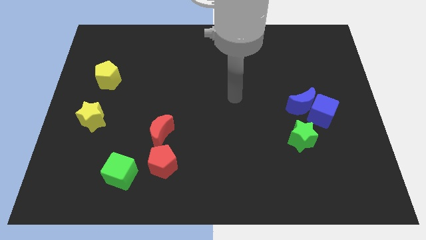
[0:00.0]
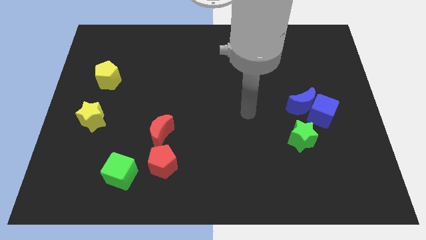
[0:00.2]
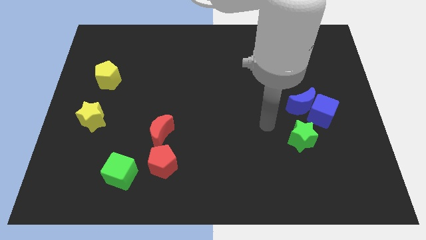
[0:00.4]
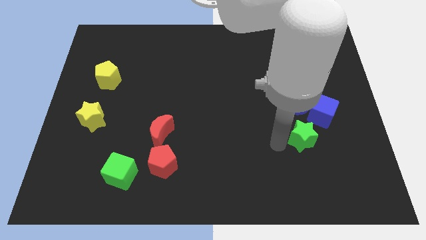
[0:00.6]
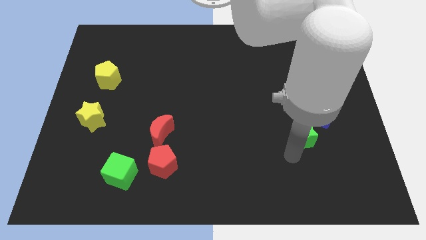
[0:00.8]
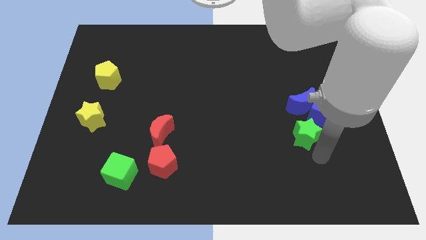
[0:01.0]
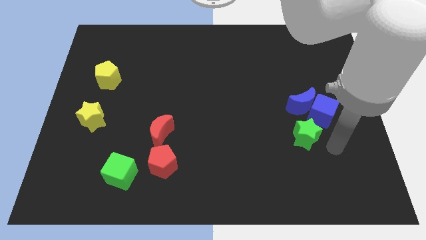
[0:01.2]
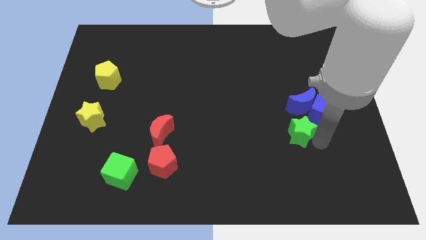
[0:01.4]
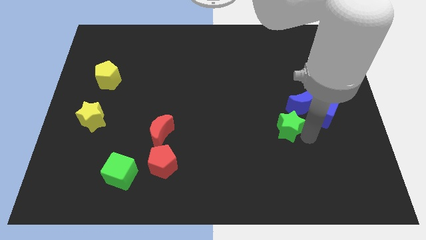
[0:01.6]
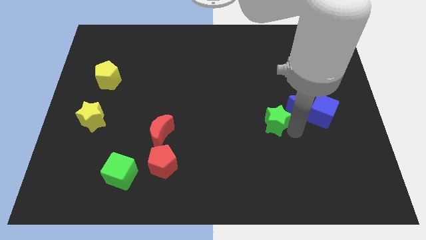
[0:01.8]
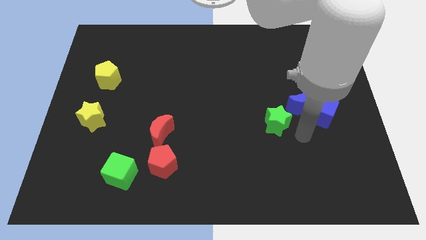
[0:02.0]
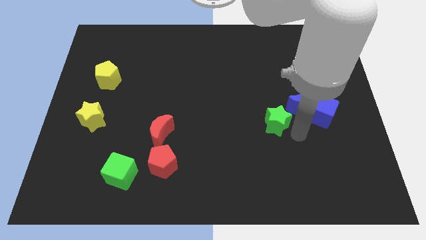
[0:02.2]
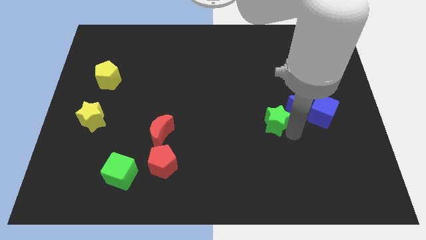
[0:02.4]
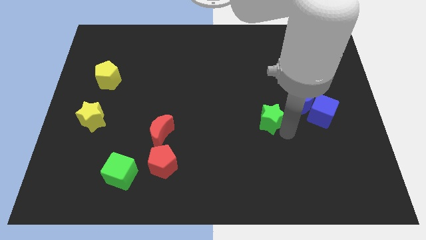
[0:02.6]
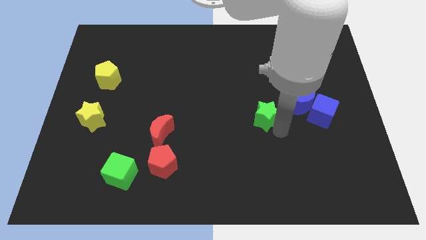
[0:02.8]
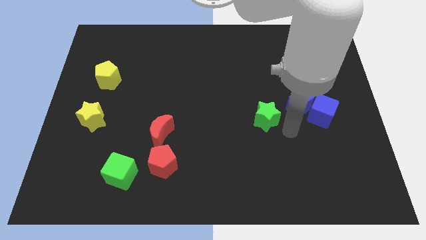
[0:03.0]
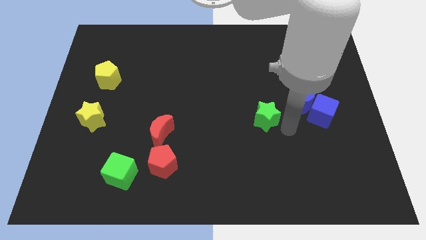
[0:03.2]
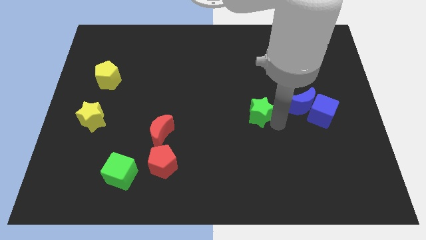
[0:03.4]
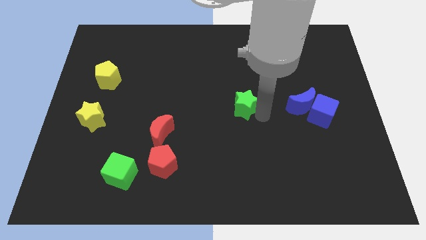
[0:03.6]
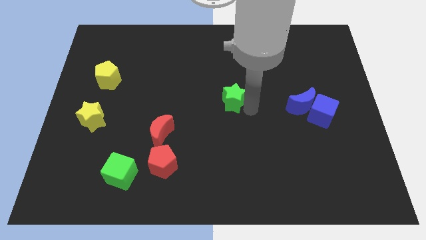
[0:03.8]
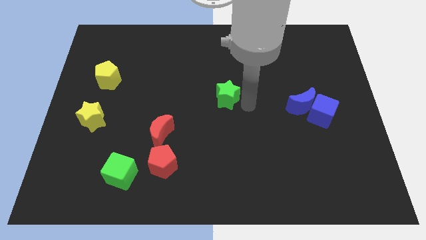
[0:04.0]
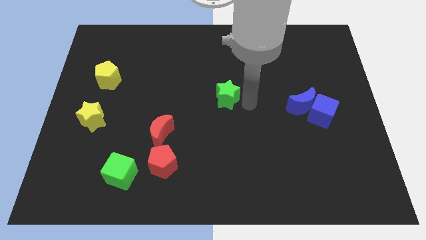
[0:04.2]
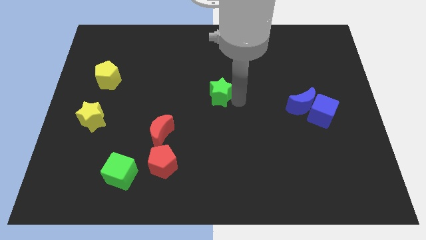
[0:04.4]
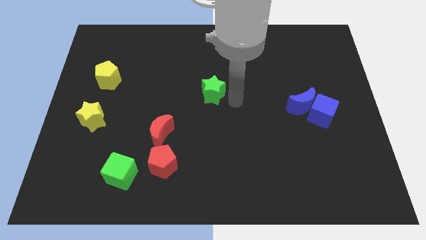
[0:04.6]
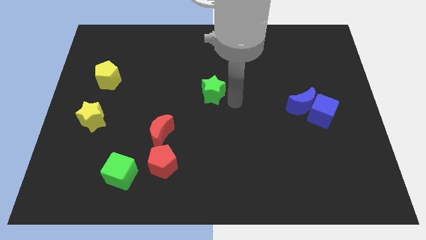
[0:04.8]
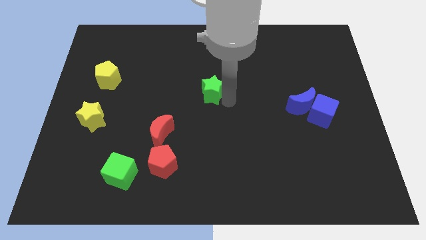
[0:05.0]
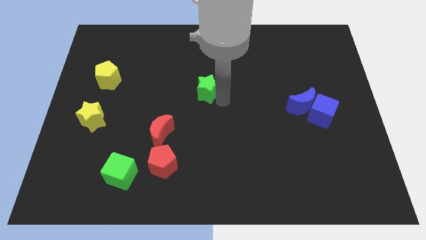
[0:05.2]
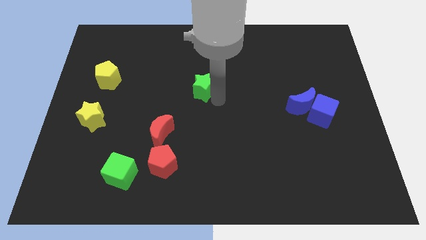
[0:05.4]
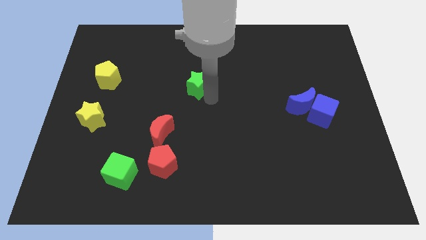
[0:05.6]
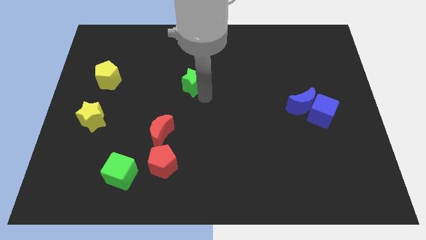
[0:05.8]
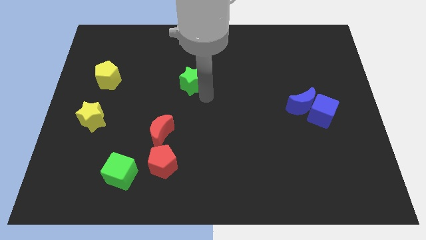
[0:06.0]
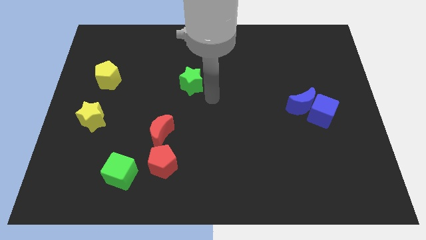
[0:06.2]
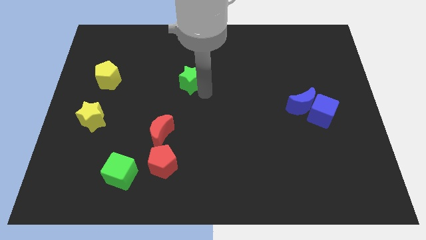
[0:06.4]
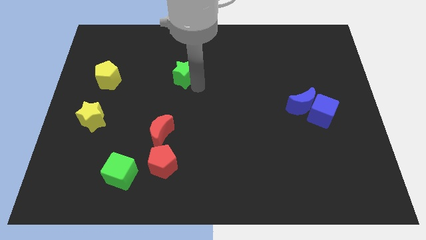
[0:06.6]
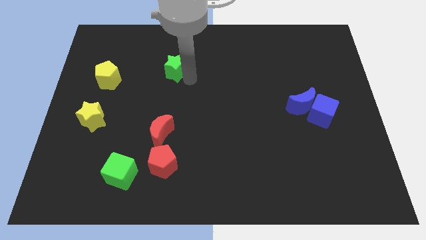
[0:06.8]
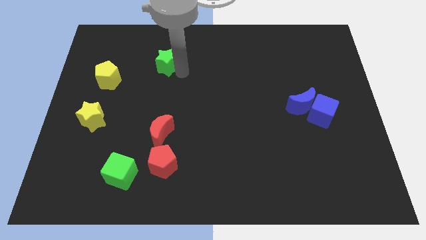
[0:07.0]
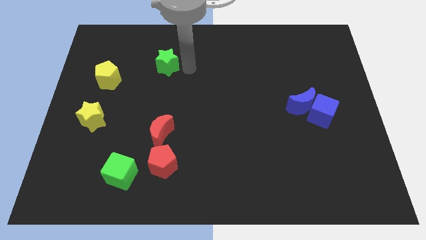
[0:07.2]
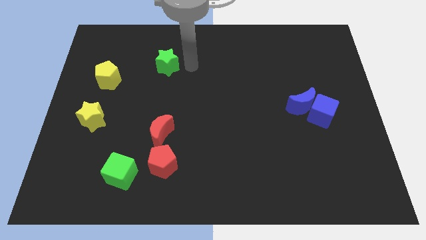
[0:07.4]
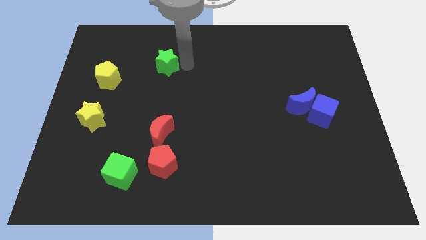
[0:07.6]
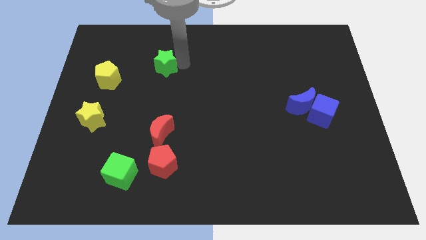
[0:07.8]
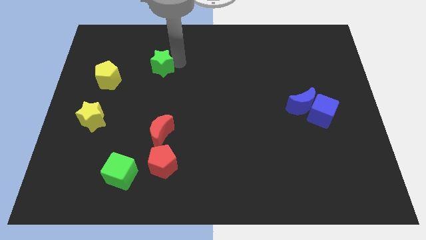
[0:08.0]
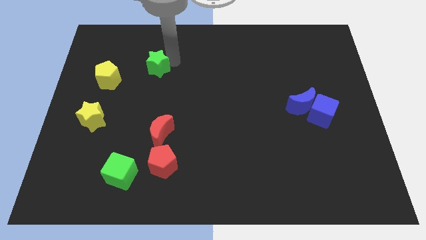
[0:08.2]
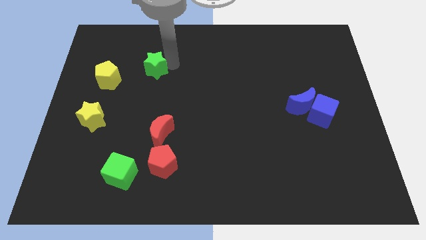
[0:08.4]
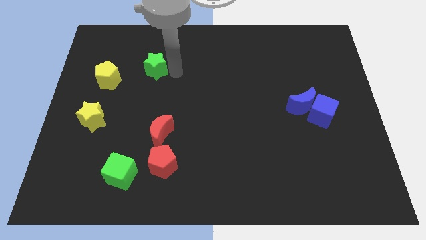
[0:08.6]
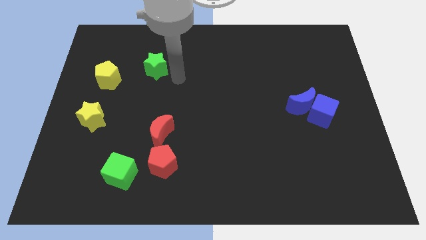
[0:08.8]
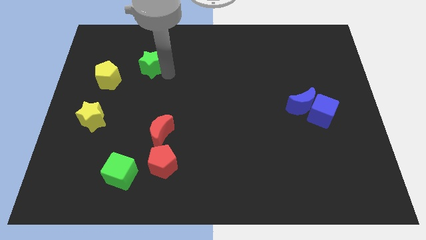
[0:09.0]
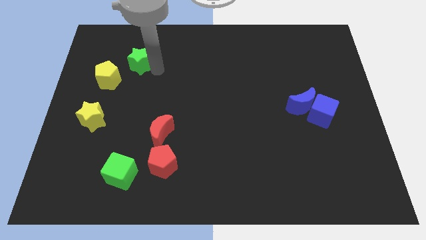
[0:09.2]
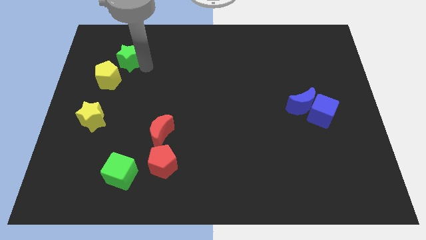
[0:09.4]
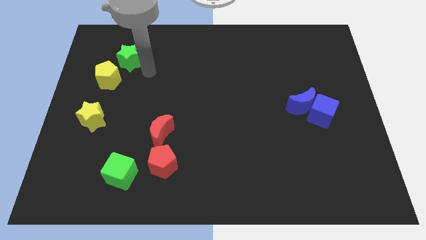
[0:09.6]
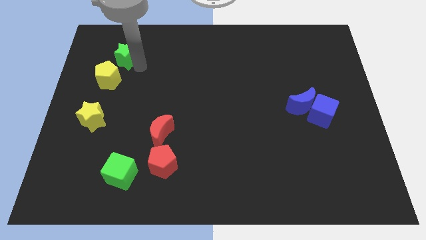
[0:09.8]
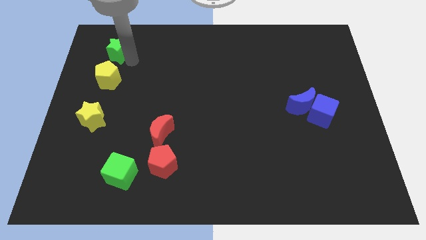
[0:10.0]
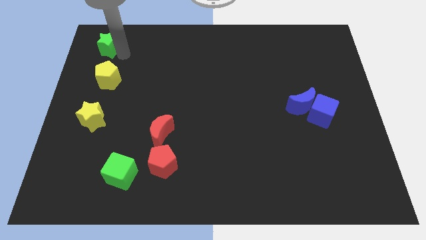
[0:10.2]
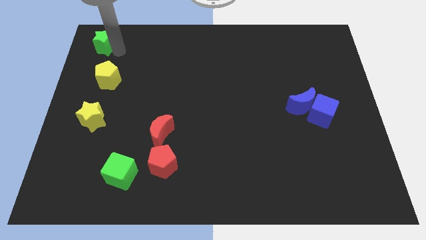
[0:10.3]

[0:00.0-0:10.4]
move the green star to the top left of the board

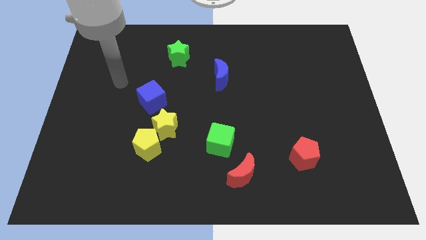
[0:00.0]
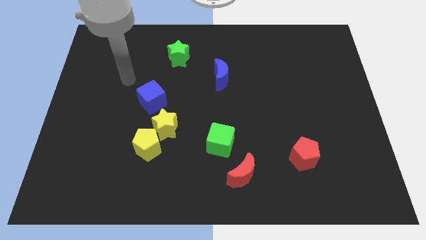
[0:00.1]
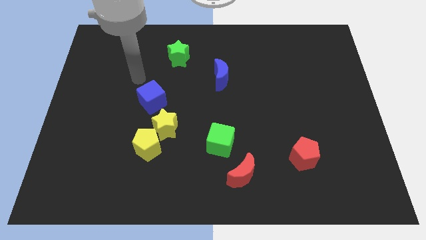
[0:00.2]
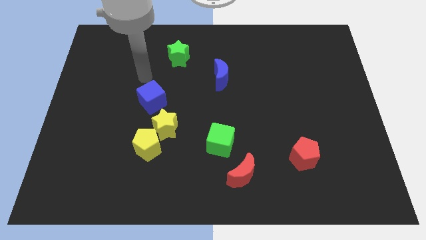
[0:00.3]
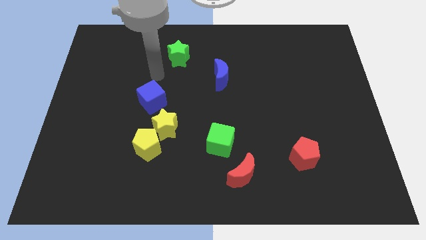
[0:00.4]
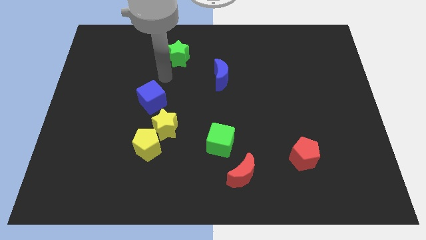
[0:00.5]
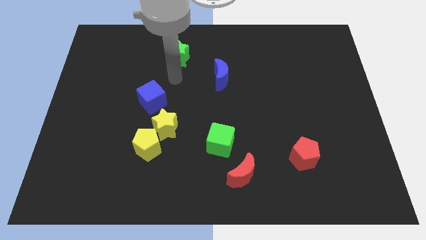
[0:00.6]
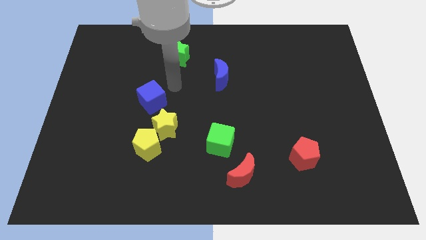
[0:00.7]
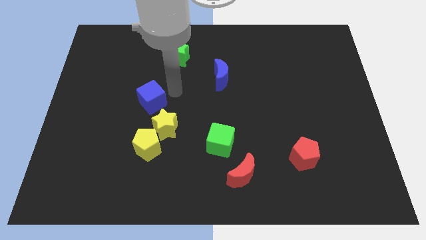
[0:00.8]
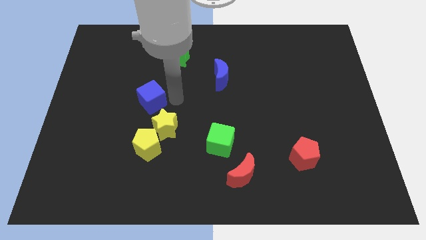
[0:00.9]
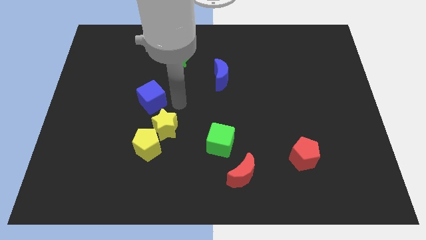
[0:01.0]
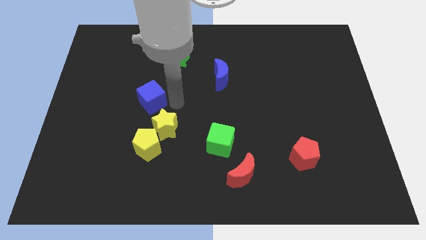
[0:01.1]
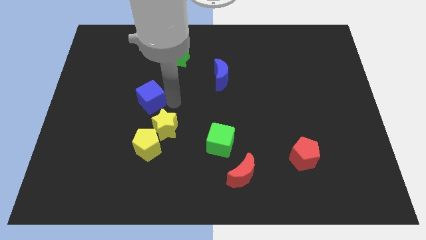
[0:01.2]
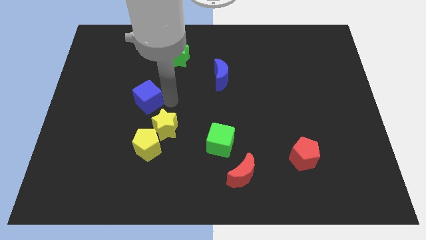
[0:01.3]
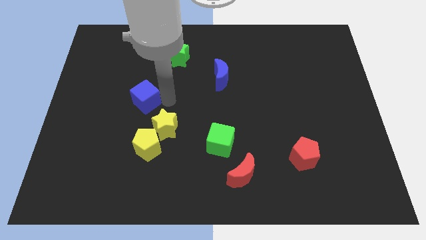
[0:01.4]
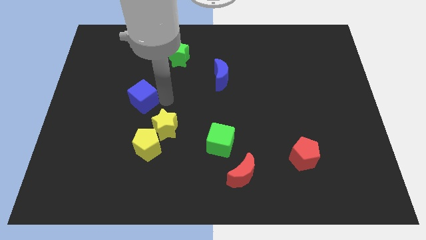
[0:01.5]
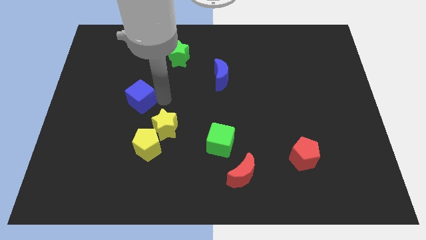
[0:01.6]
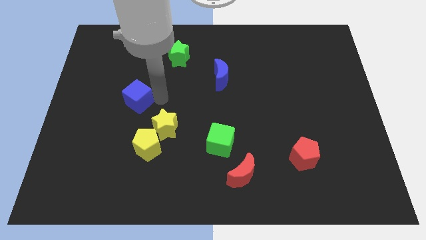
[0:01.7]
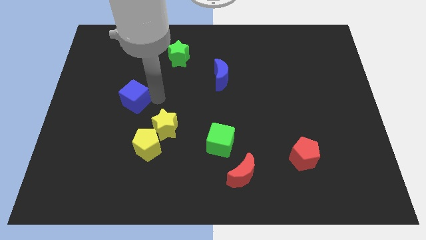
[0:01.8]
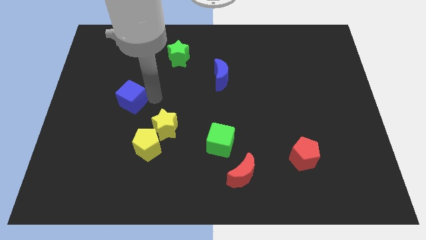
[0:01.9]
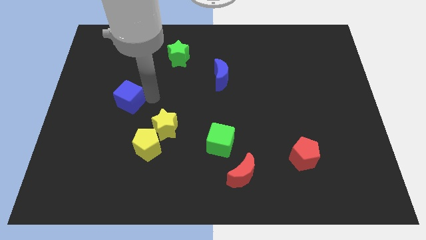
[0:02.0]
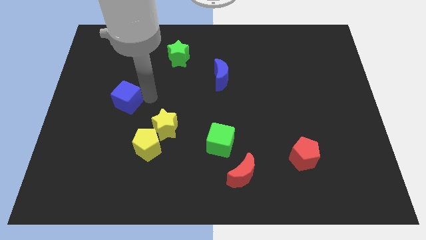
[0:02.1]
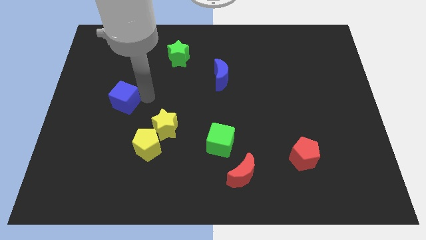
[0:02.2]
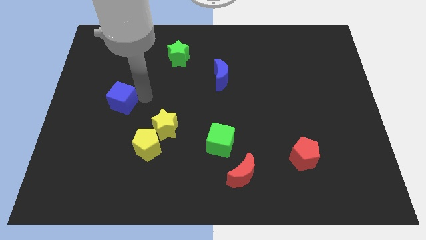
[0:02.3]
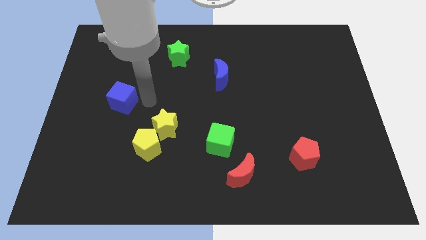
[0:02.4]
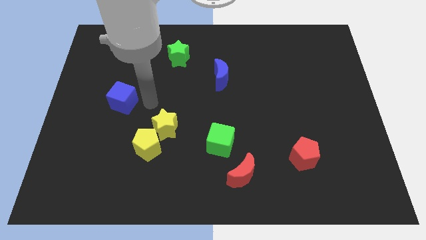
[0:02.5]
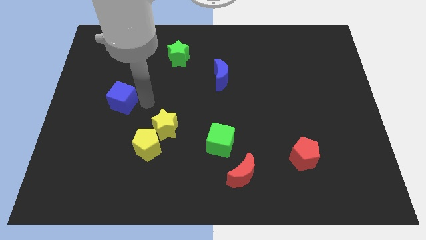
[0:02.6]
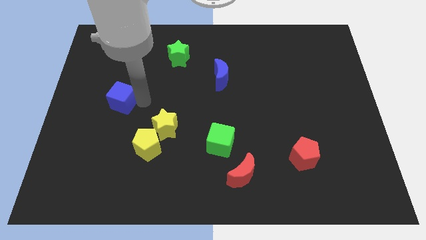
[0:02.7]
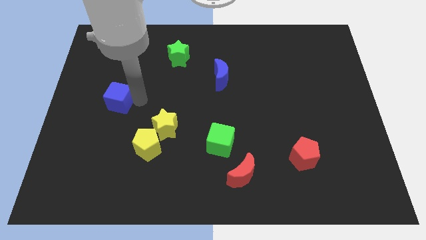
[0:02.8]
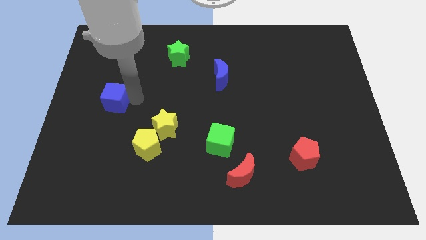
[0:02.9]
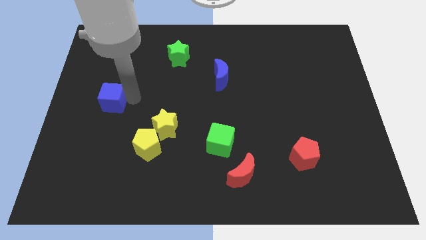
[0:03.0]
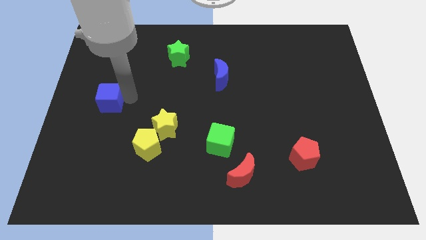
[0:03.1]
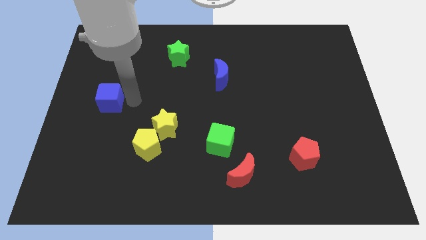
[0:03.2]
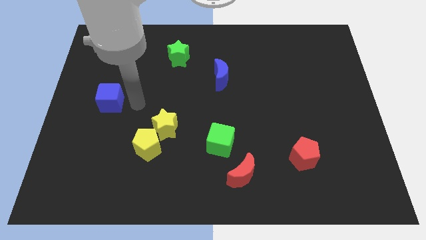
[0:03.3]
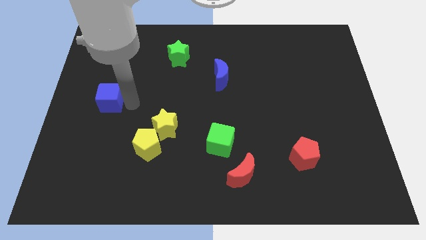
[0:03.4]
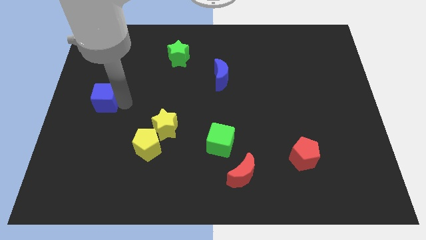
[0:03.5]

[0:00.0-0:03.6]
push the blue cube to the left side of the board
